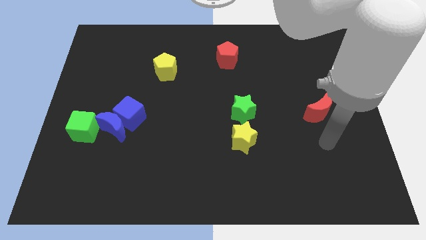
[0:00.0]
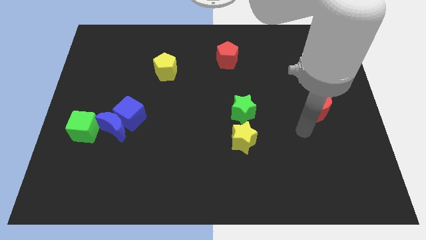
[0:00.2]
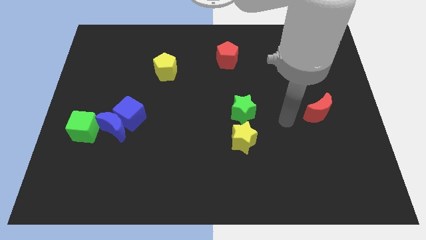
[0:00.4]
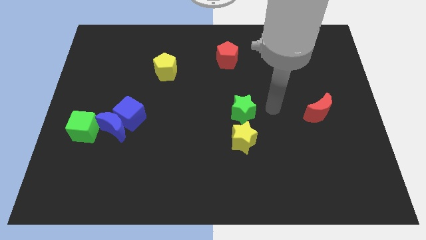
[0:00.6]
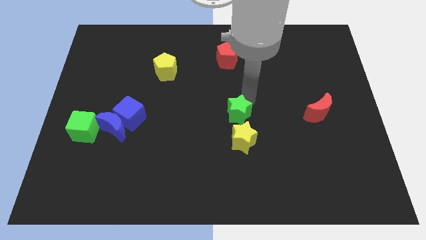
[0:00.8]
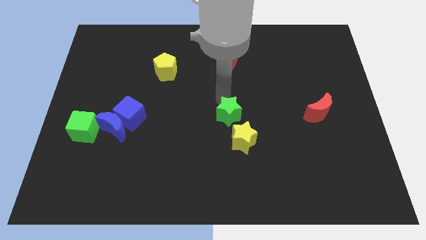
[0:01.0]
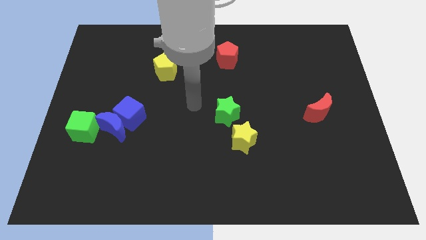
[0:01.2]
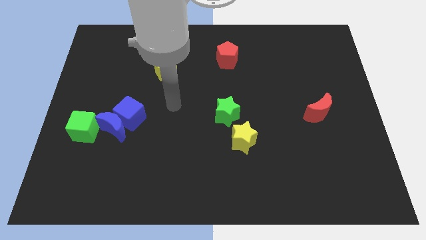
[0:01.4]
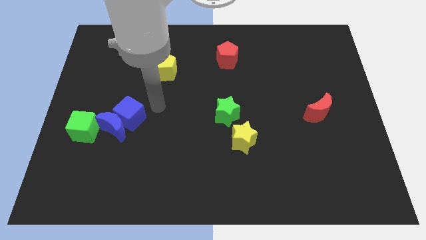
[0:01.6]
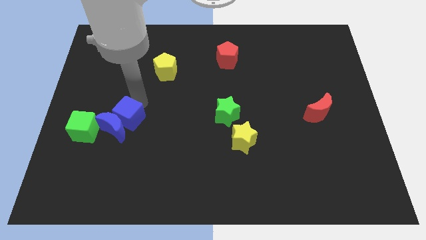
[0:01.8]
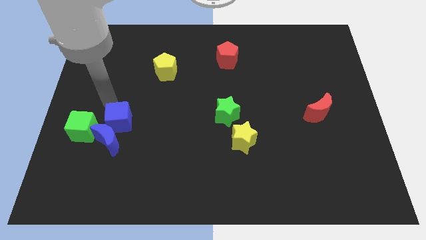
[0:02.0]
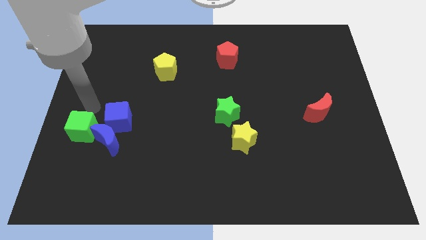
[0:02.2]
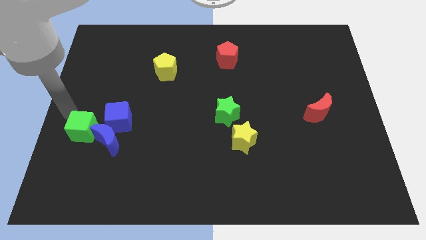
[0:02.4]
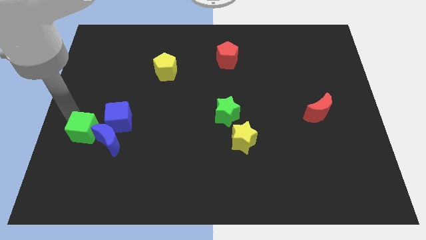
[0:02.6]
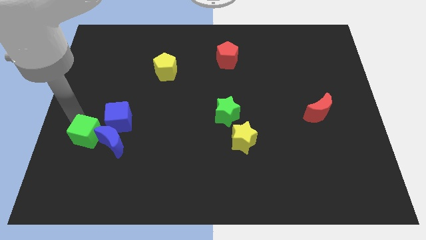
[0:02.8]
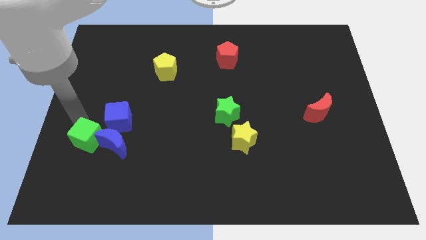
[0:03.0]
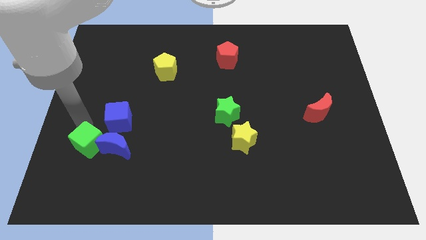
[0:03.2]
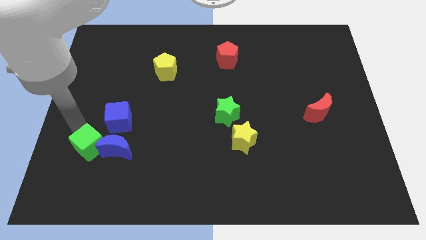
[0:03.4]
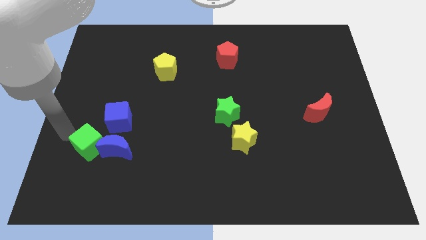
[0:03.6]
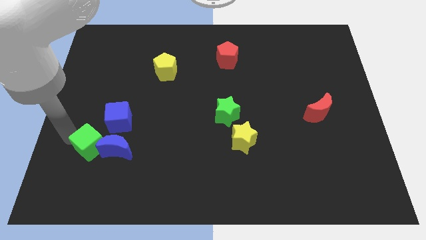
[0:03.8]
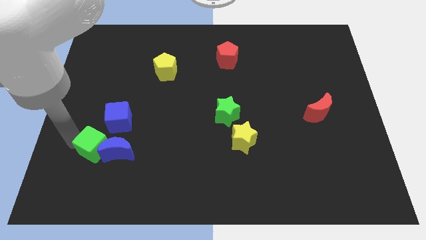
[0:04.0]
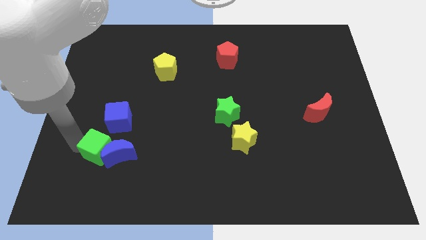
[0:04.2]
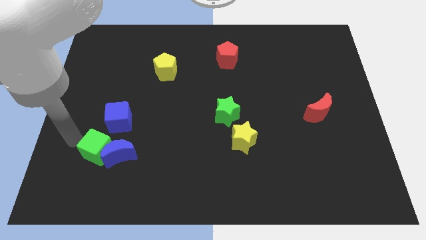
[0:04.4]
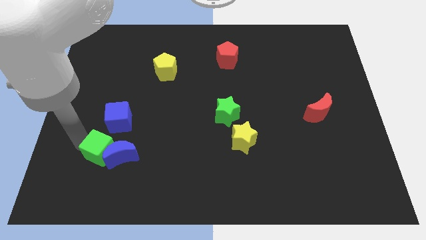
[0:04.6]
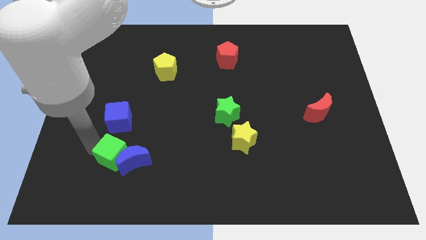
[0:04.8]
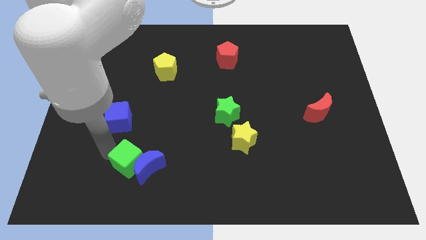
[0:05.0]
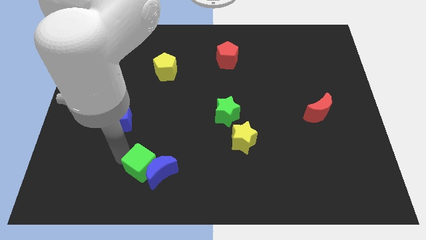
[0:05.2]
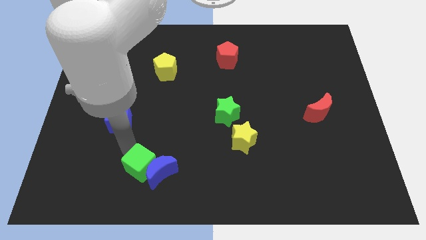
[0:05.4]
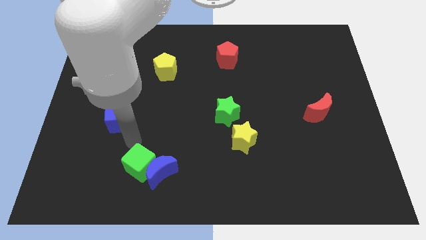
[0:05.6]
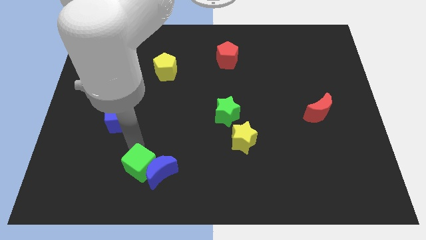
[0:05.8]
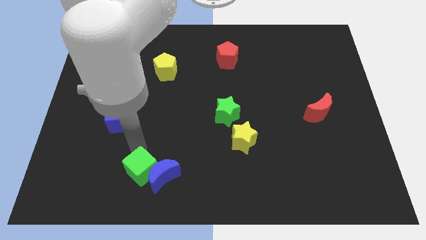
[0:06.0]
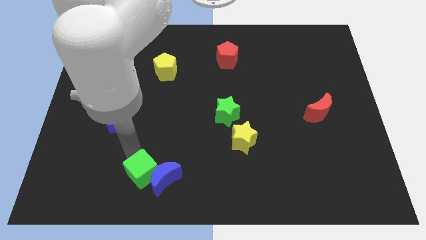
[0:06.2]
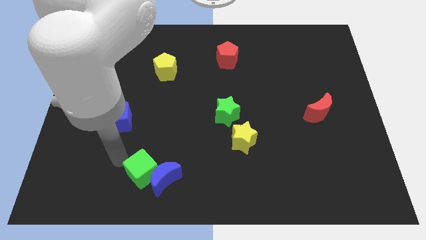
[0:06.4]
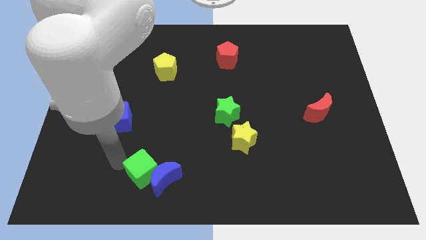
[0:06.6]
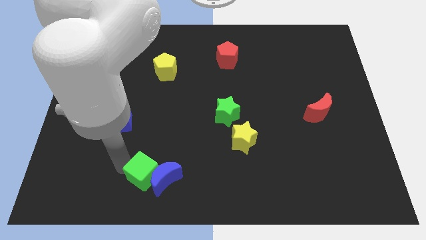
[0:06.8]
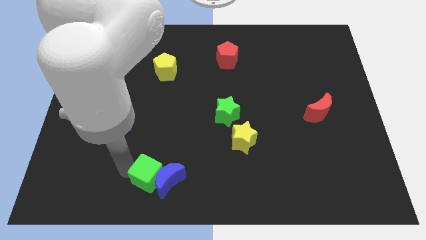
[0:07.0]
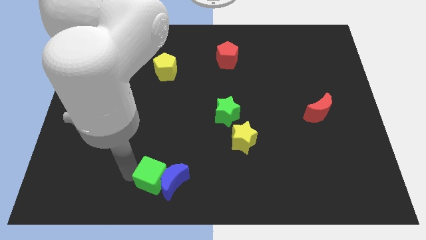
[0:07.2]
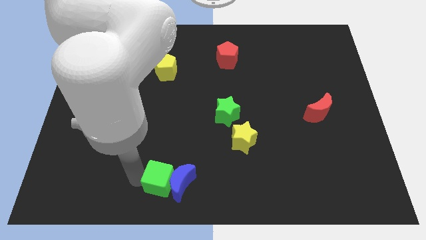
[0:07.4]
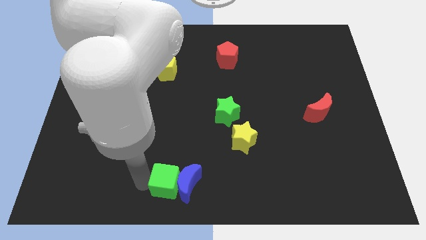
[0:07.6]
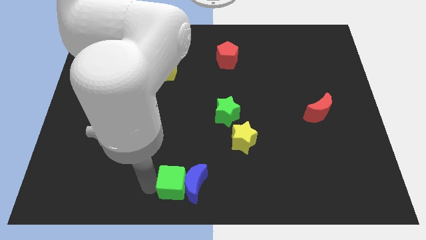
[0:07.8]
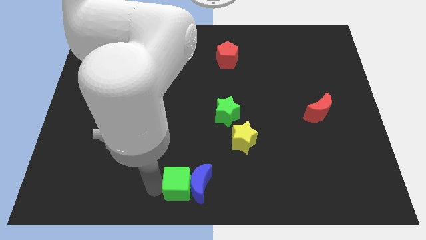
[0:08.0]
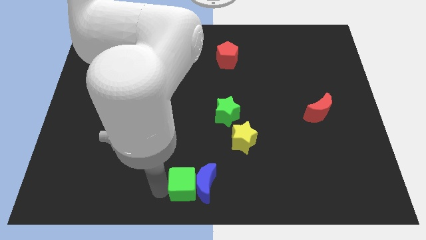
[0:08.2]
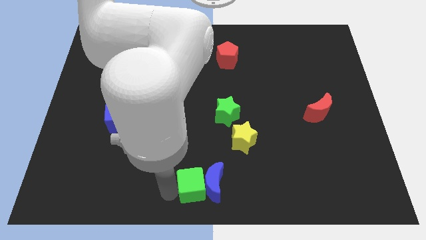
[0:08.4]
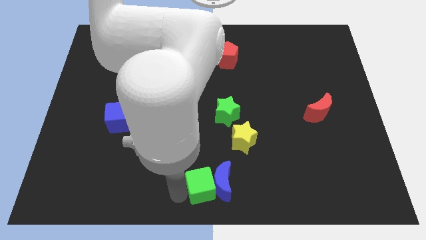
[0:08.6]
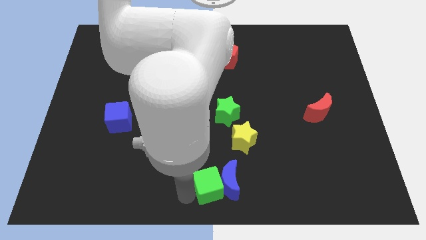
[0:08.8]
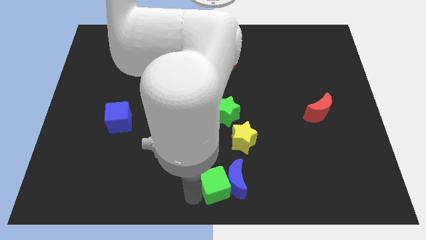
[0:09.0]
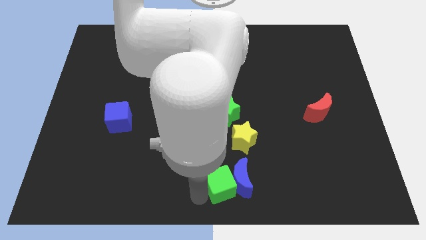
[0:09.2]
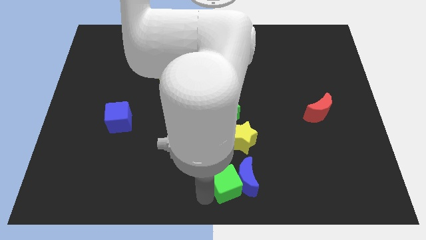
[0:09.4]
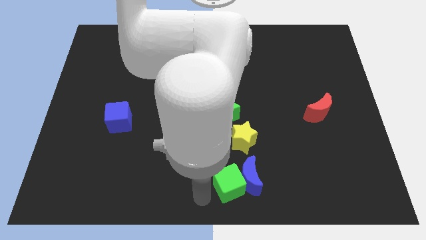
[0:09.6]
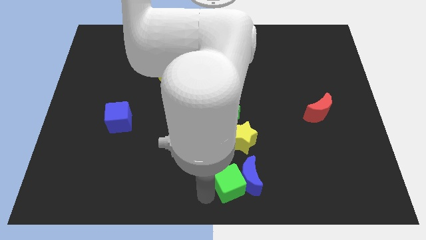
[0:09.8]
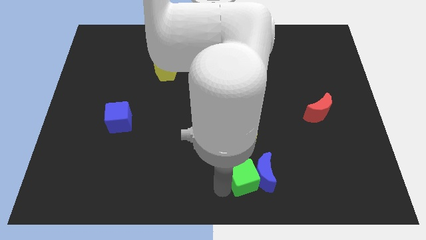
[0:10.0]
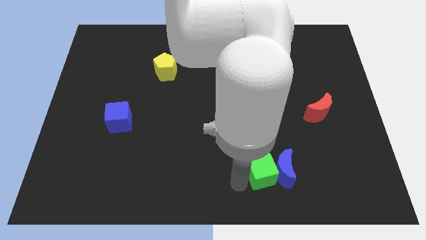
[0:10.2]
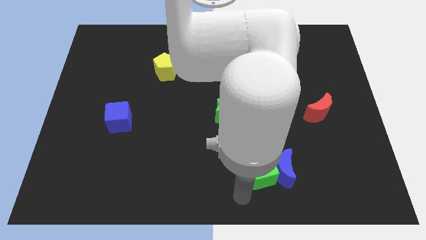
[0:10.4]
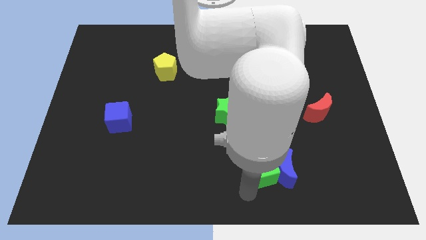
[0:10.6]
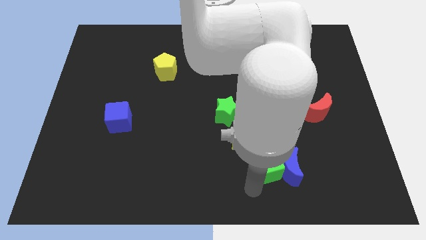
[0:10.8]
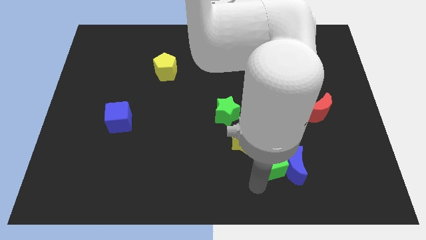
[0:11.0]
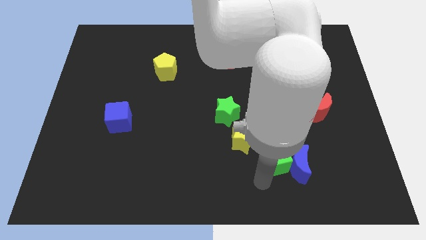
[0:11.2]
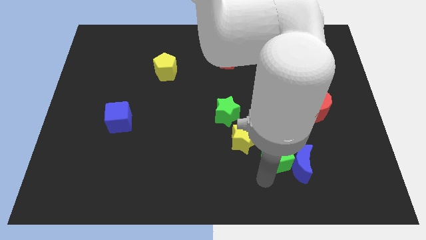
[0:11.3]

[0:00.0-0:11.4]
put the green cube to the right side of the yellow star
